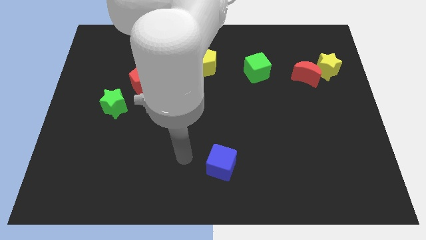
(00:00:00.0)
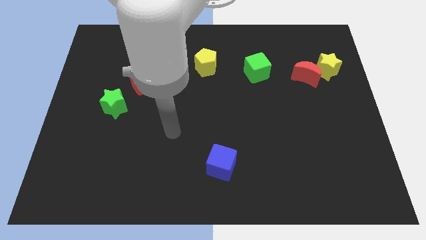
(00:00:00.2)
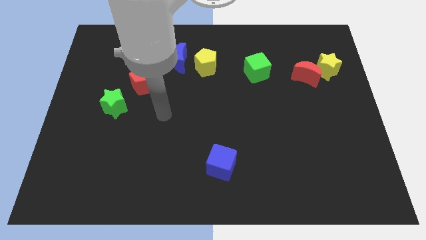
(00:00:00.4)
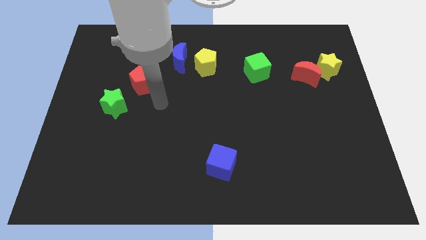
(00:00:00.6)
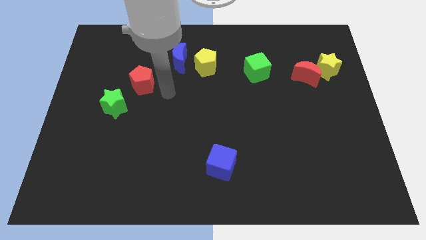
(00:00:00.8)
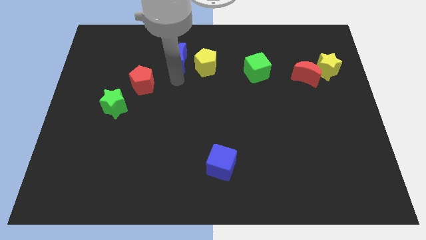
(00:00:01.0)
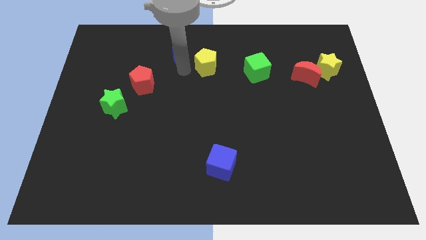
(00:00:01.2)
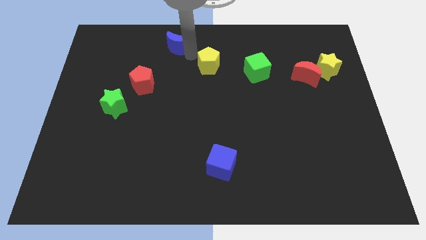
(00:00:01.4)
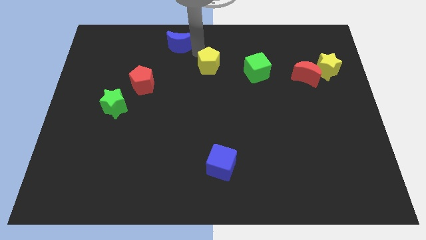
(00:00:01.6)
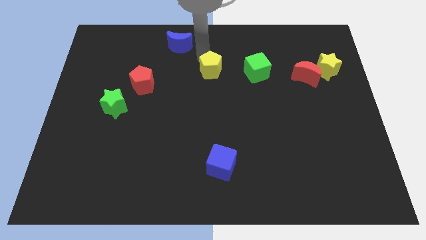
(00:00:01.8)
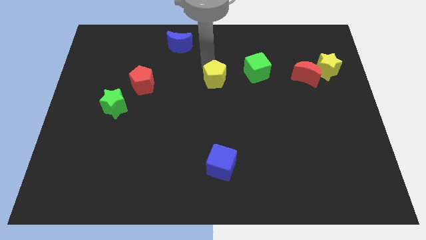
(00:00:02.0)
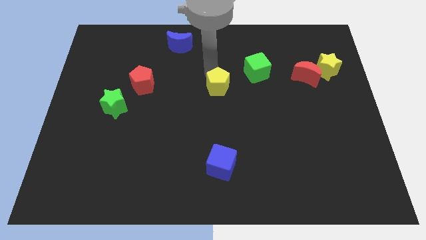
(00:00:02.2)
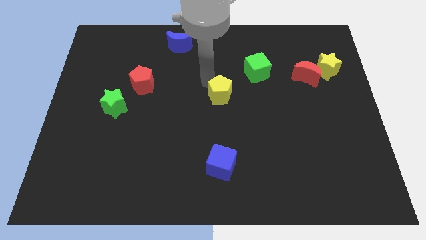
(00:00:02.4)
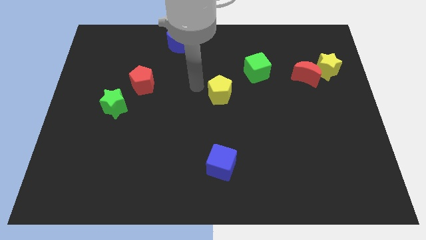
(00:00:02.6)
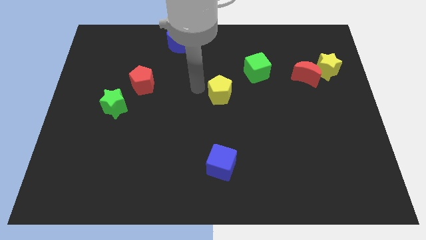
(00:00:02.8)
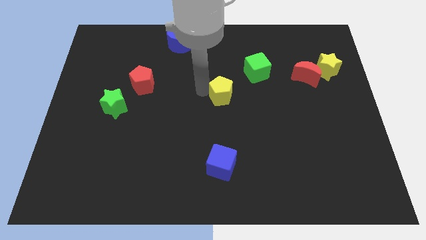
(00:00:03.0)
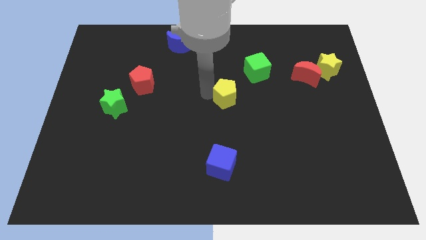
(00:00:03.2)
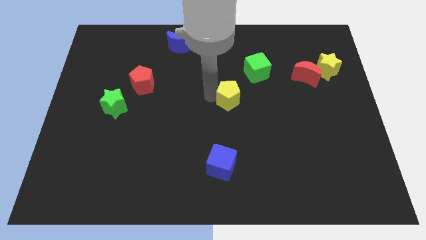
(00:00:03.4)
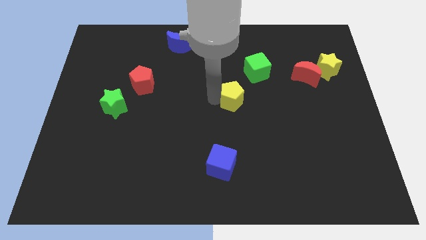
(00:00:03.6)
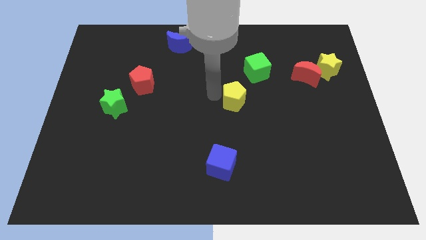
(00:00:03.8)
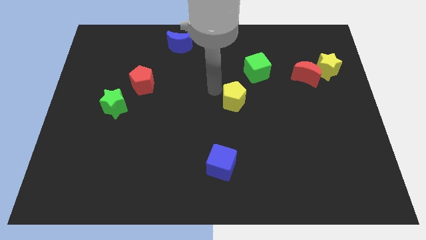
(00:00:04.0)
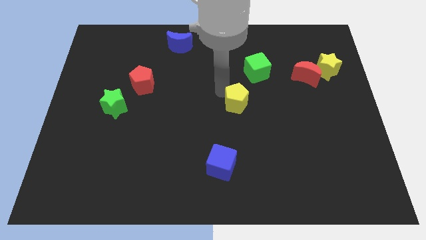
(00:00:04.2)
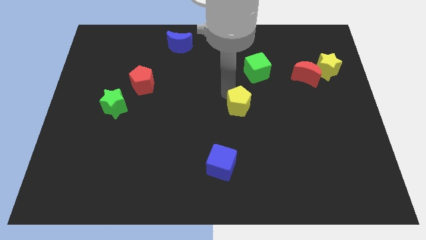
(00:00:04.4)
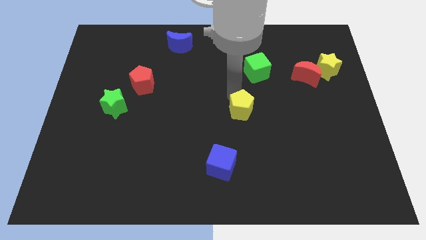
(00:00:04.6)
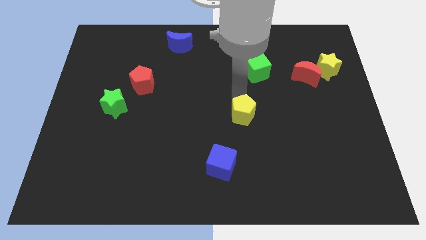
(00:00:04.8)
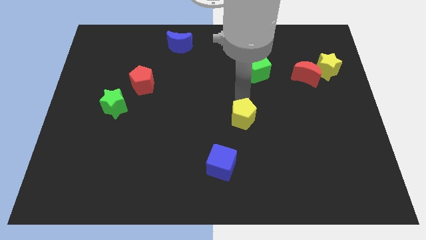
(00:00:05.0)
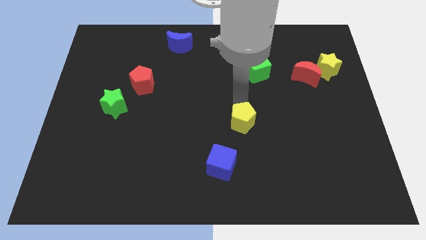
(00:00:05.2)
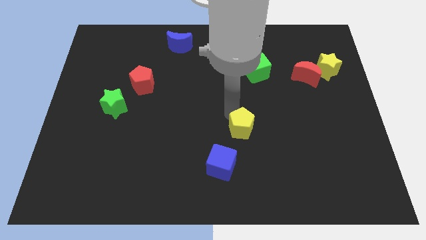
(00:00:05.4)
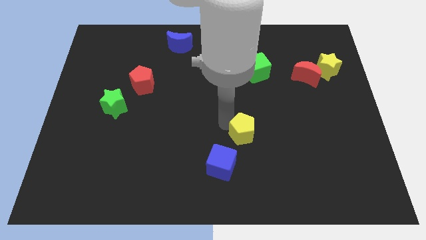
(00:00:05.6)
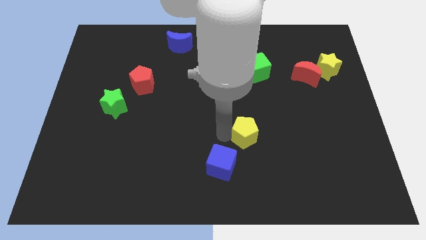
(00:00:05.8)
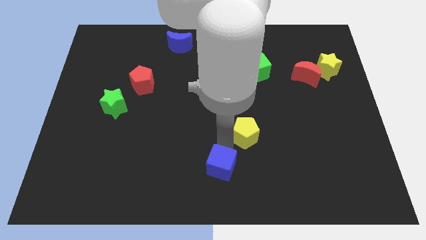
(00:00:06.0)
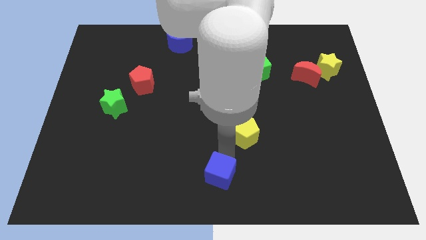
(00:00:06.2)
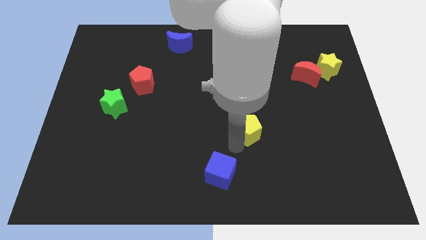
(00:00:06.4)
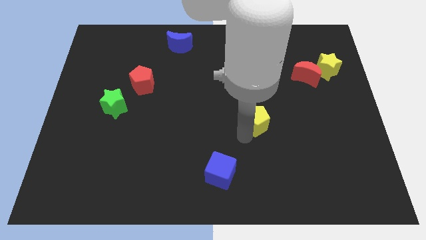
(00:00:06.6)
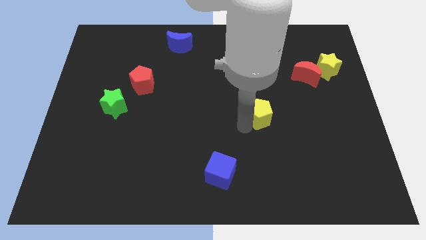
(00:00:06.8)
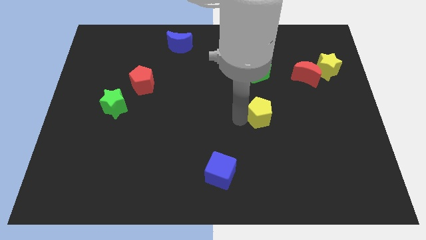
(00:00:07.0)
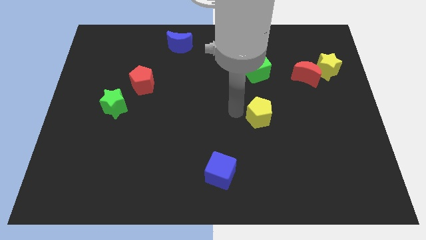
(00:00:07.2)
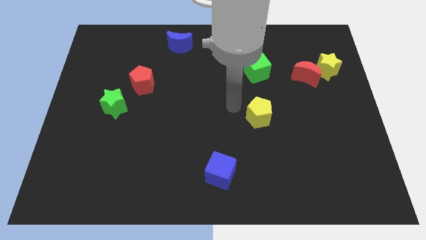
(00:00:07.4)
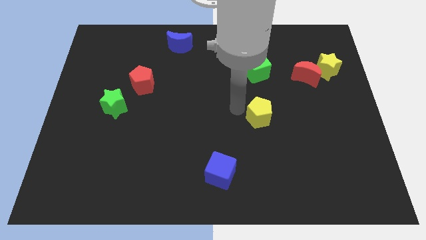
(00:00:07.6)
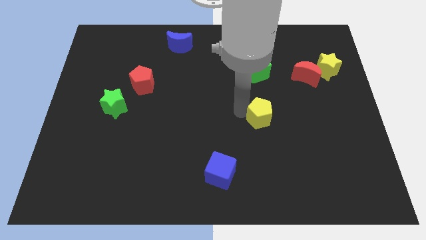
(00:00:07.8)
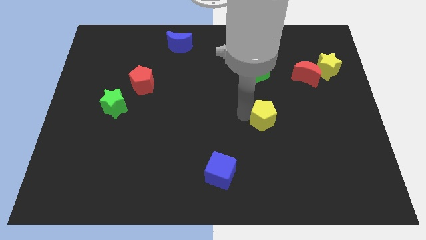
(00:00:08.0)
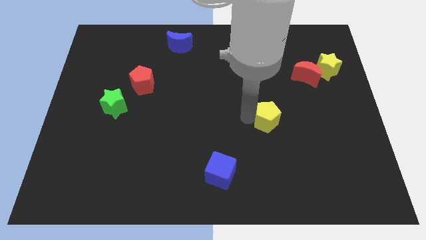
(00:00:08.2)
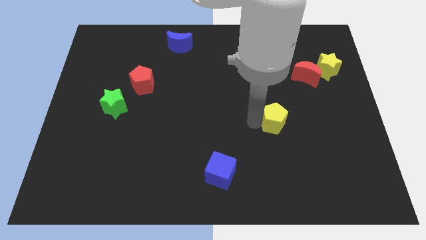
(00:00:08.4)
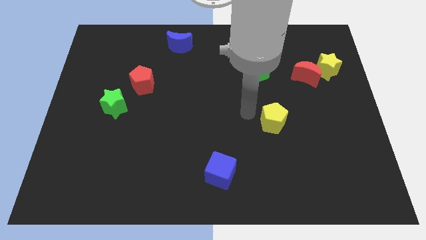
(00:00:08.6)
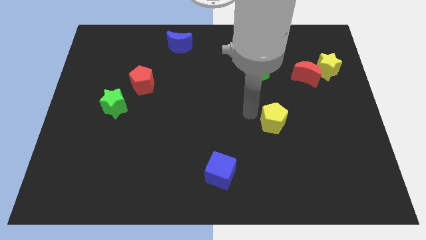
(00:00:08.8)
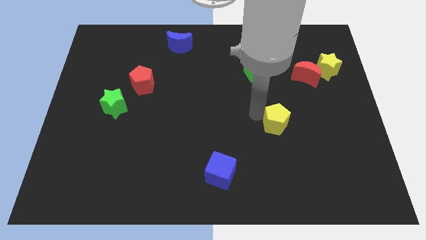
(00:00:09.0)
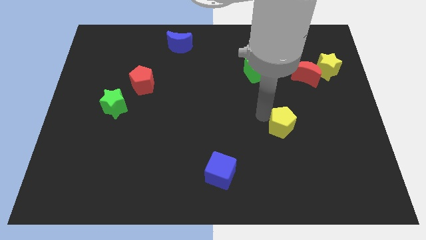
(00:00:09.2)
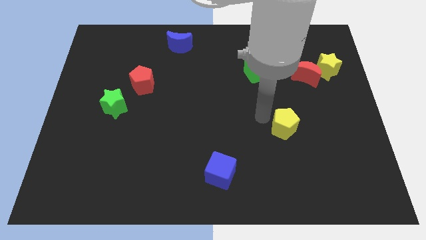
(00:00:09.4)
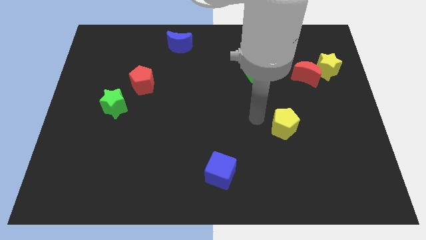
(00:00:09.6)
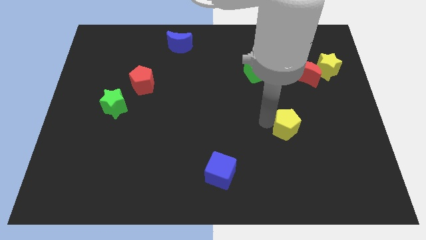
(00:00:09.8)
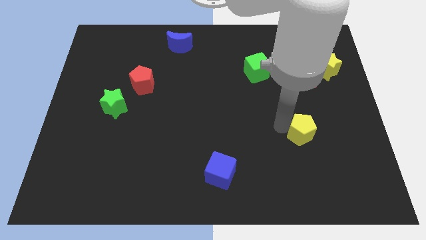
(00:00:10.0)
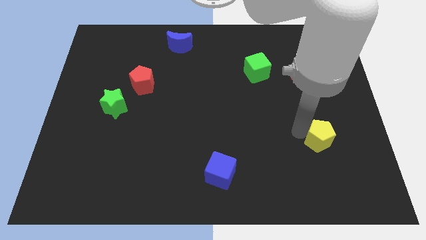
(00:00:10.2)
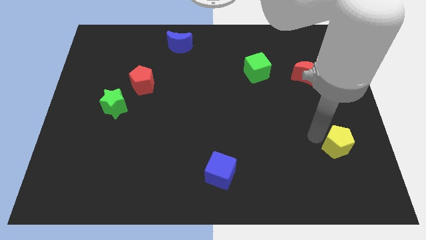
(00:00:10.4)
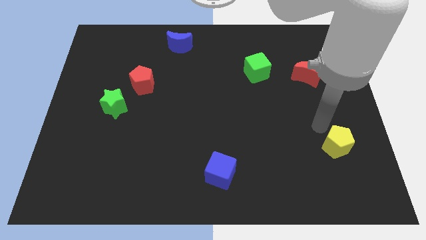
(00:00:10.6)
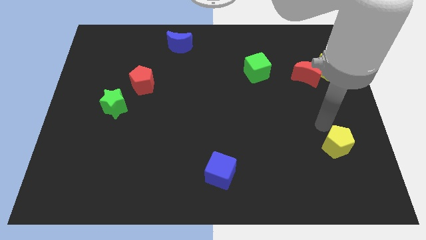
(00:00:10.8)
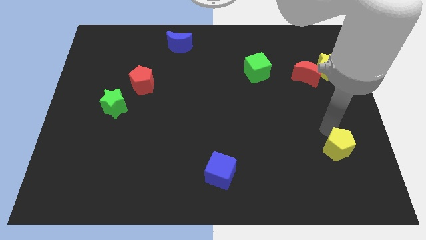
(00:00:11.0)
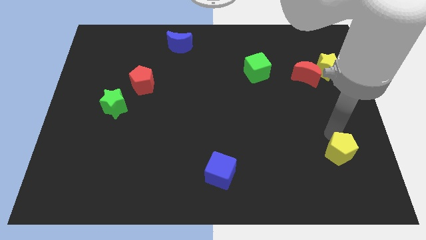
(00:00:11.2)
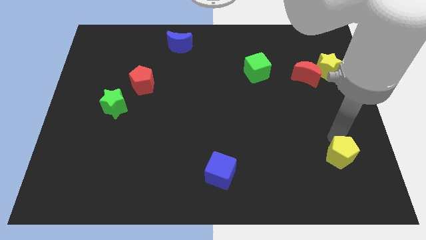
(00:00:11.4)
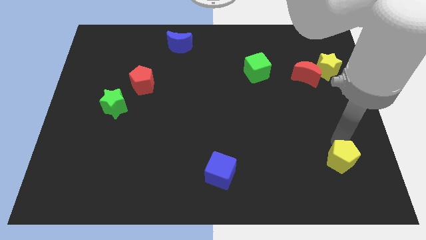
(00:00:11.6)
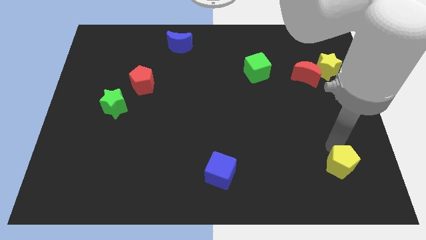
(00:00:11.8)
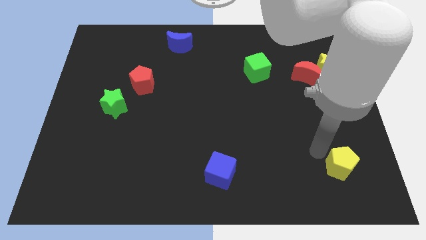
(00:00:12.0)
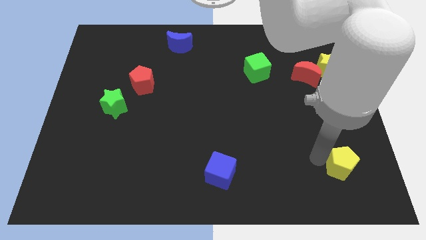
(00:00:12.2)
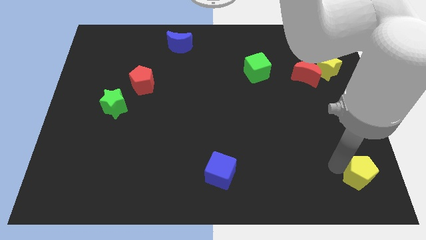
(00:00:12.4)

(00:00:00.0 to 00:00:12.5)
put the yellow pentagon to the bottom right corner
